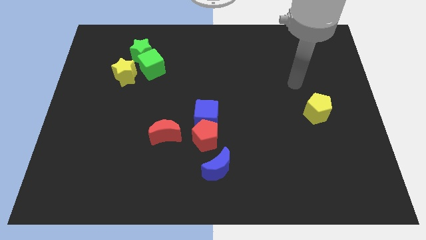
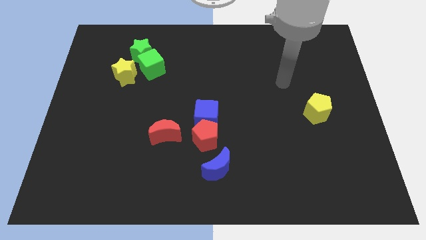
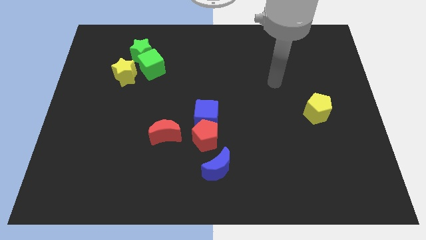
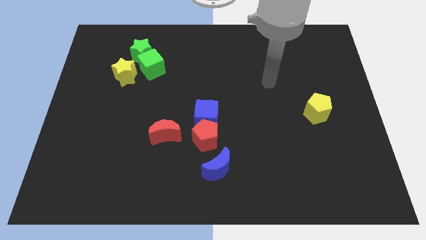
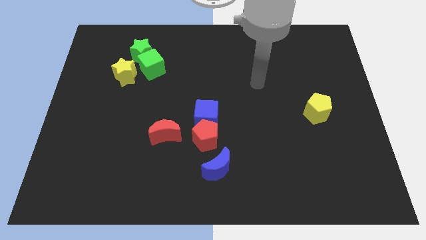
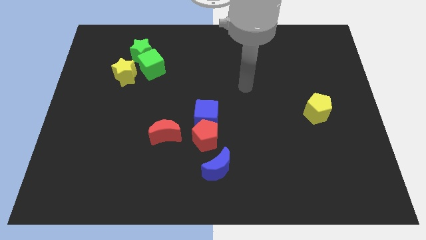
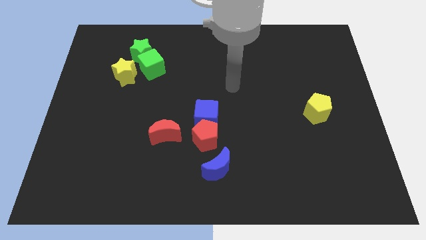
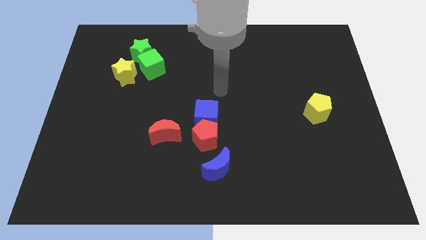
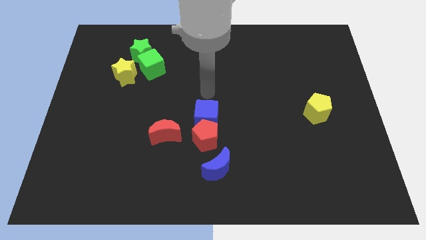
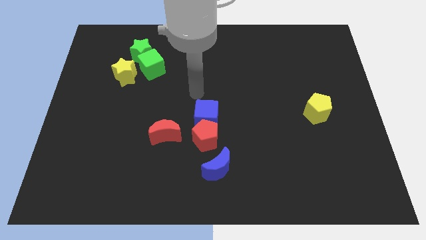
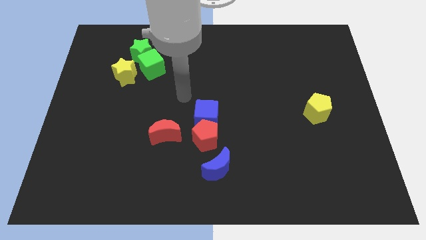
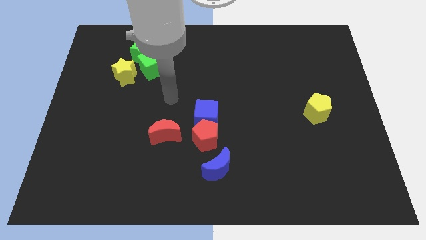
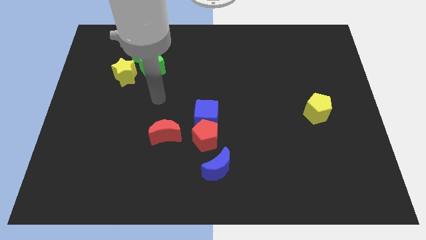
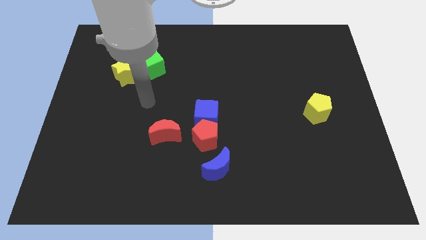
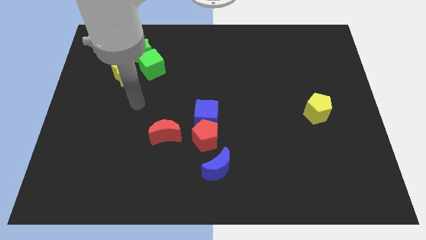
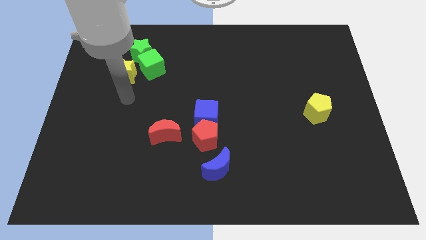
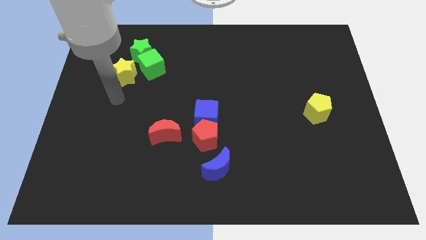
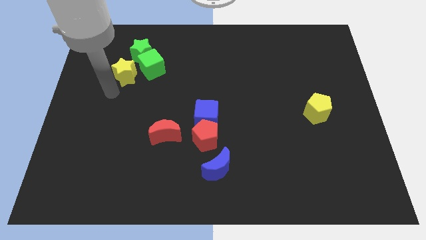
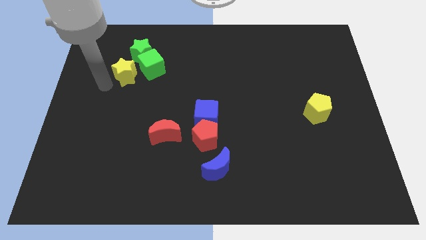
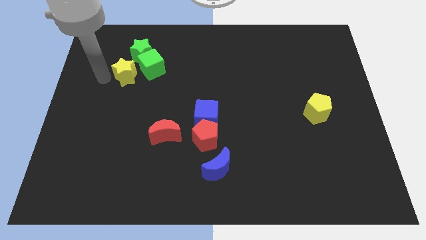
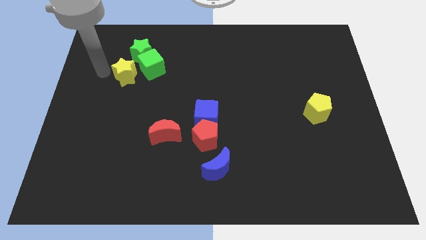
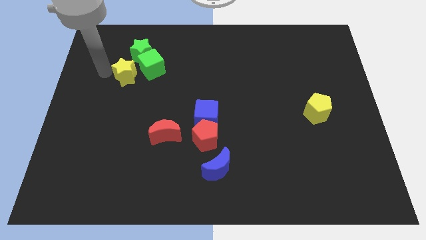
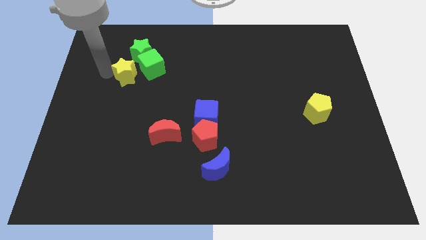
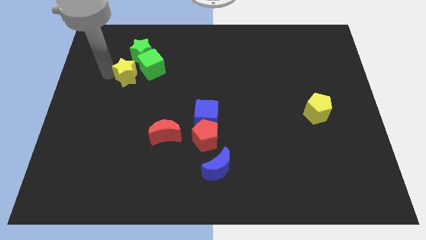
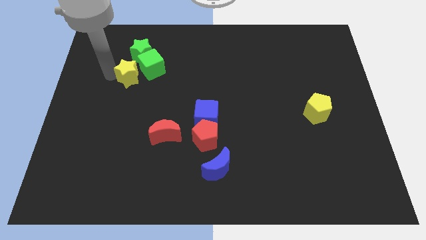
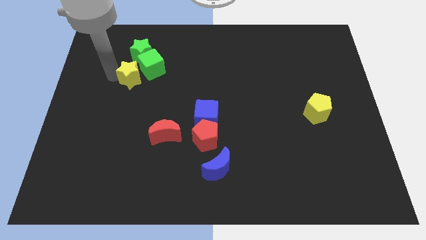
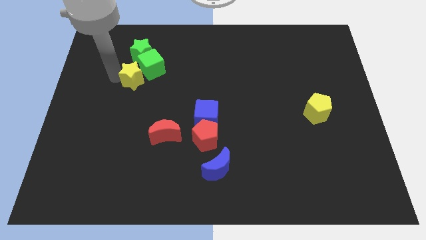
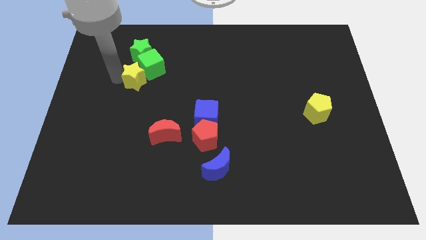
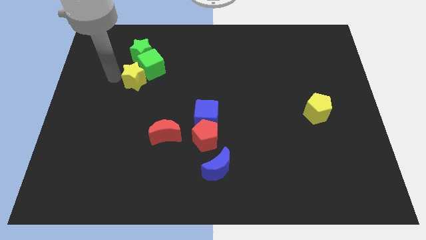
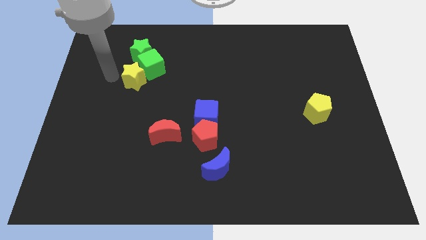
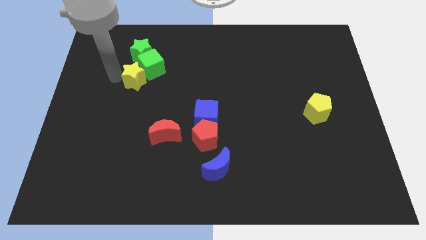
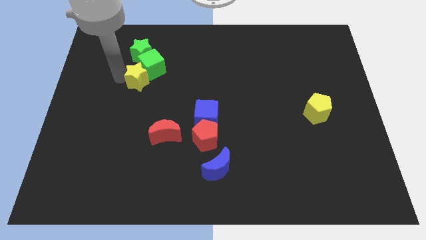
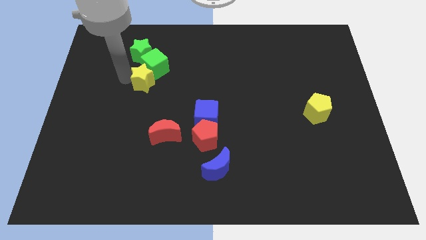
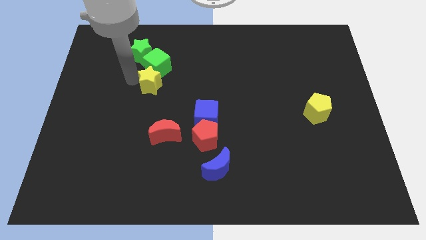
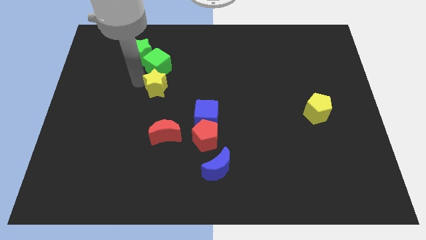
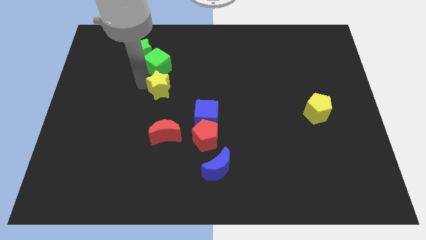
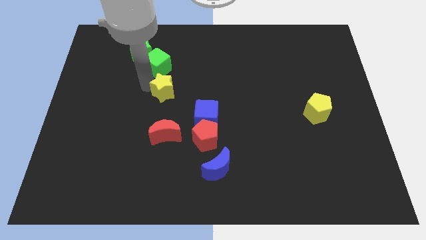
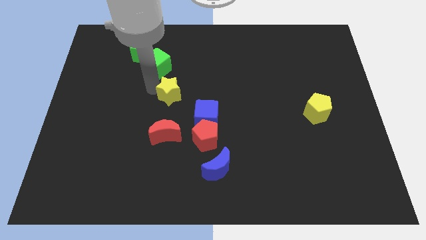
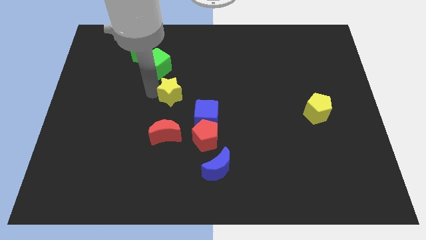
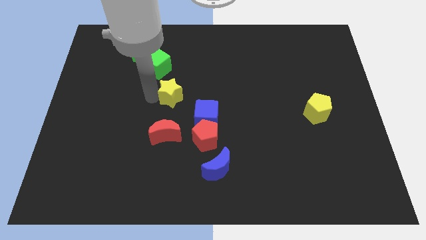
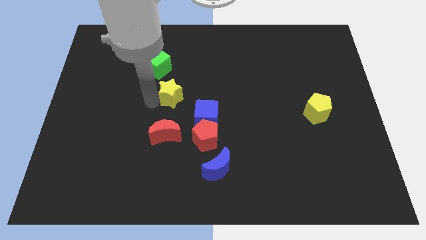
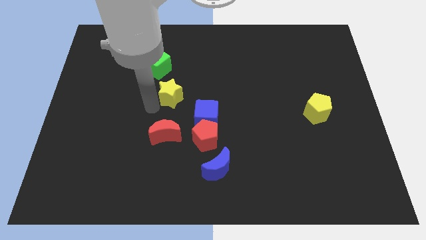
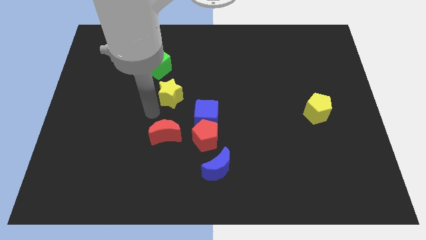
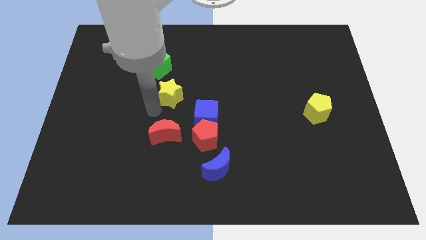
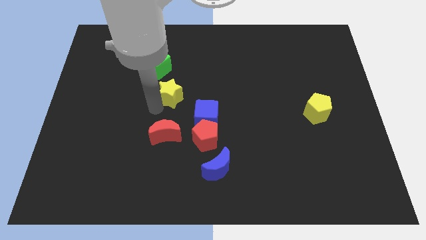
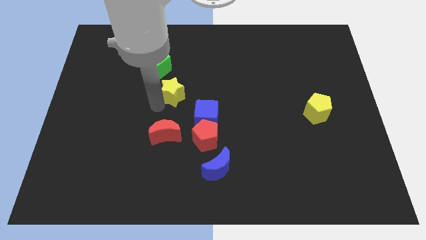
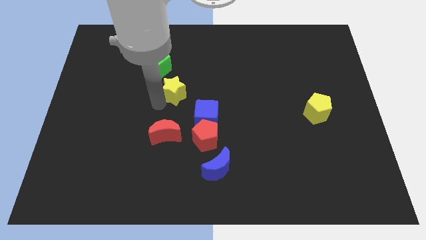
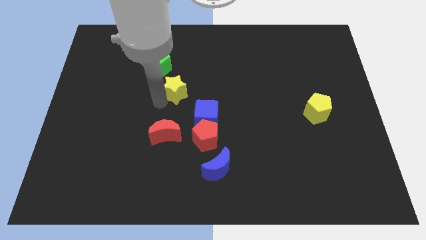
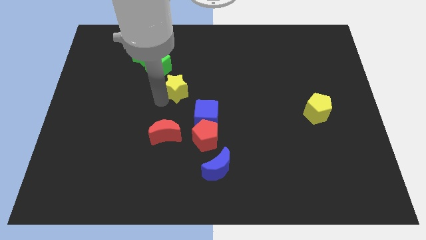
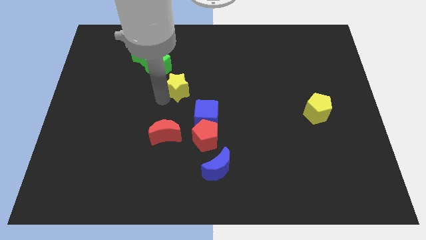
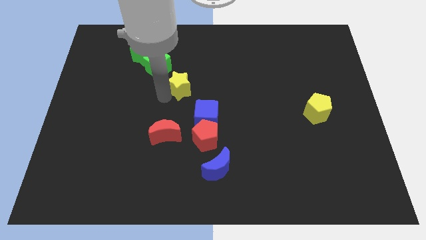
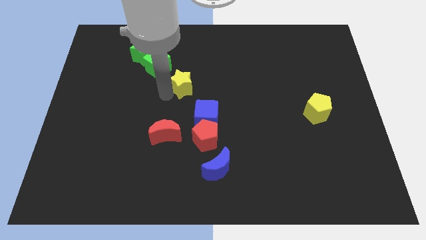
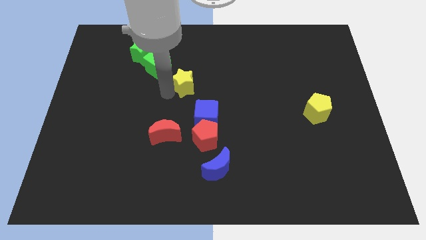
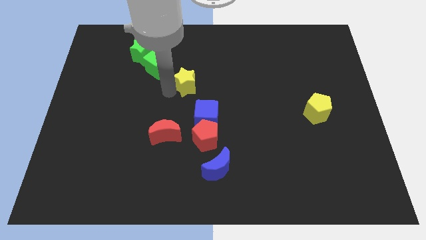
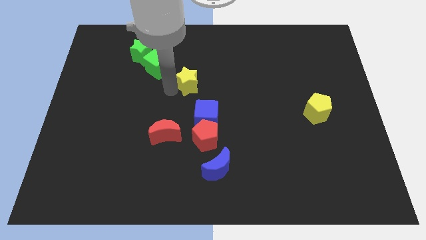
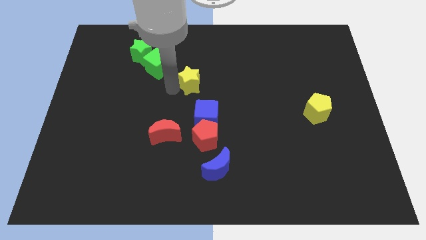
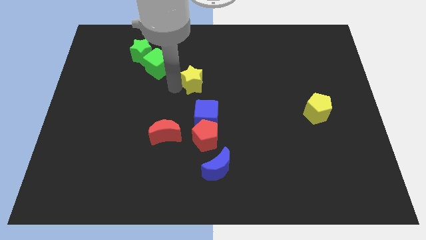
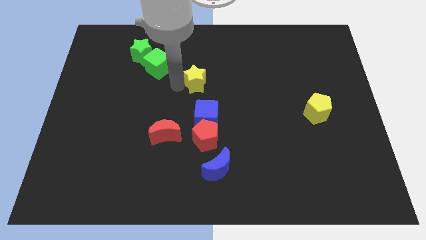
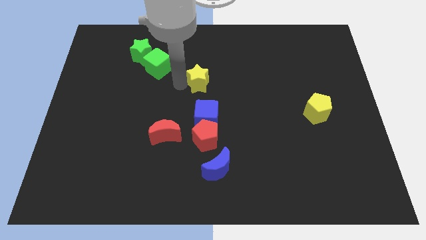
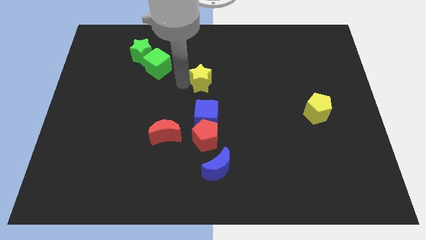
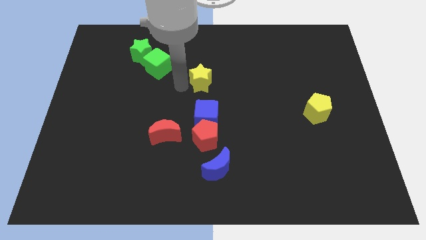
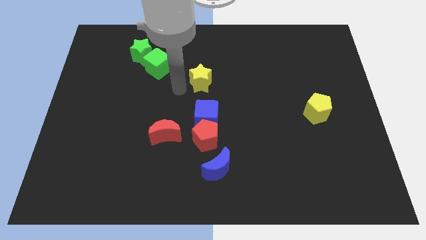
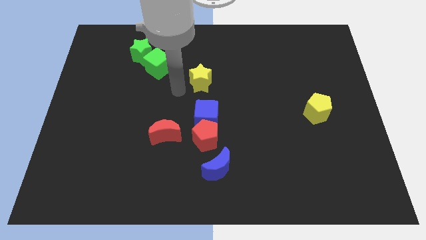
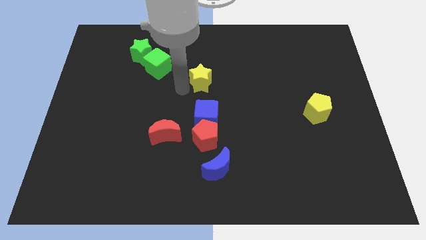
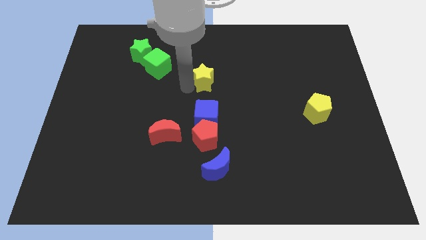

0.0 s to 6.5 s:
move the yellow star to the right

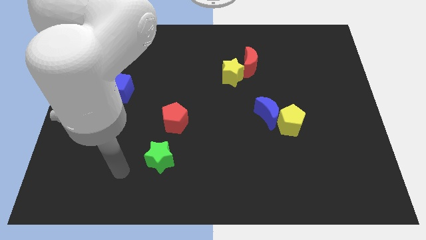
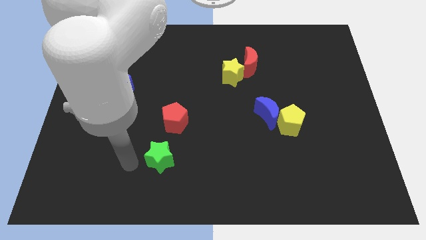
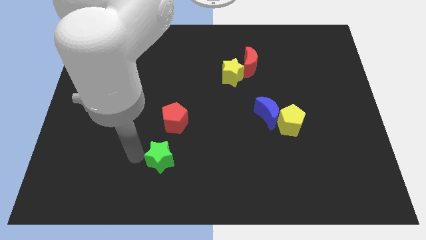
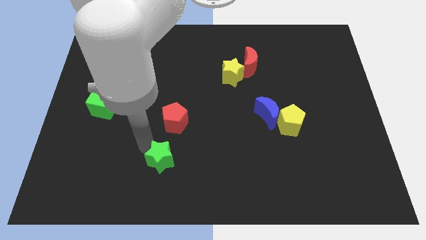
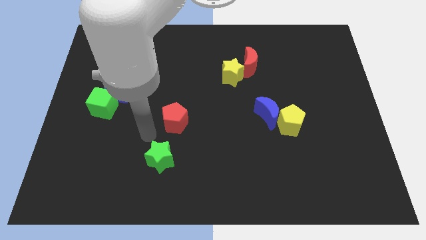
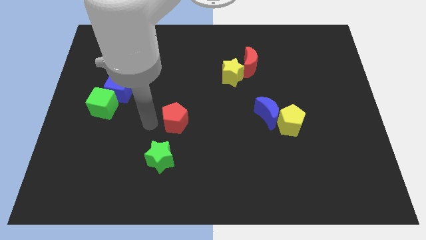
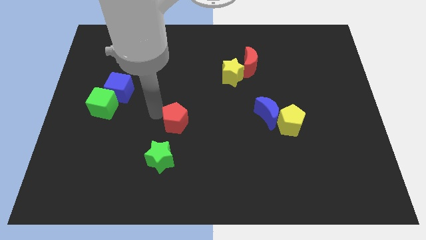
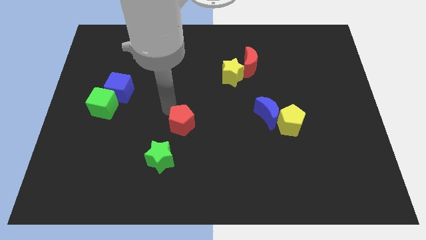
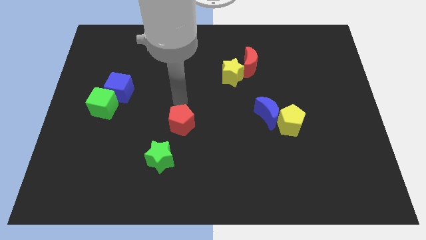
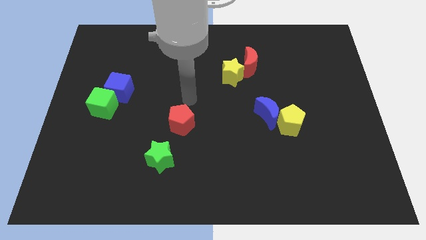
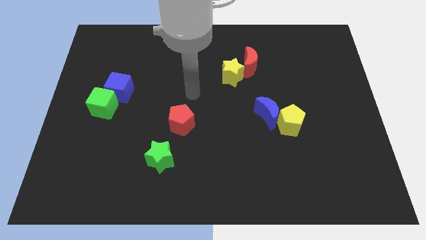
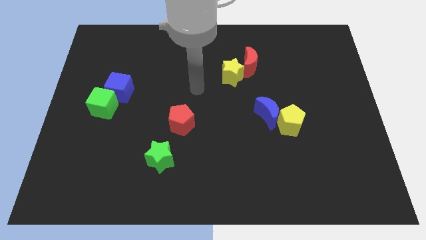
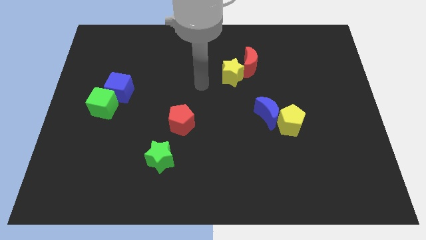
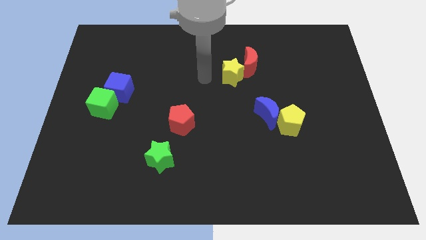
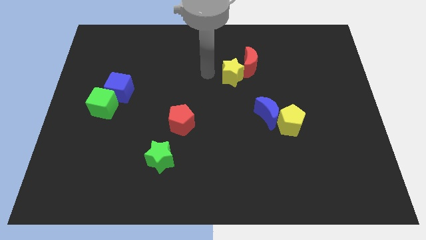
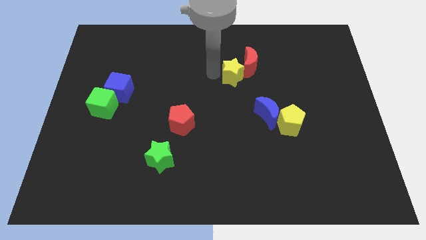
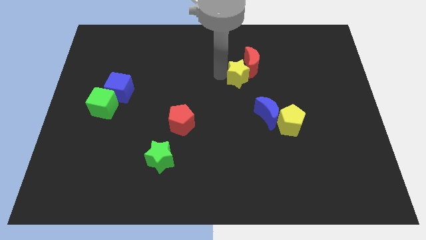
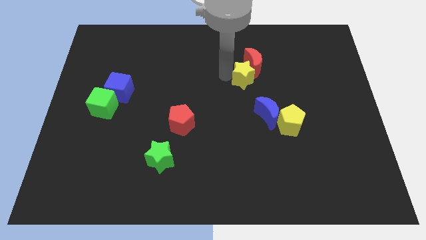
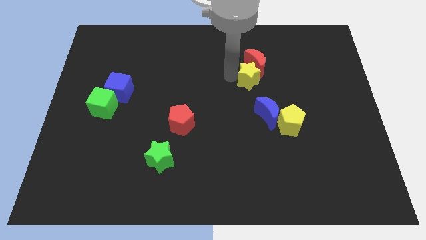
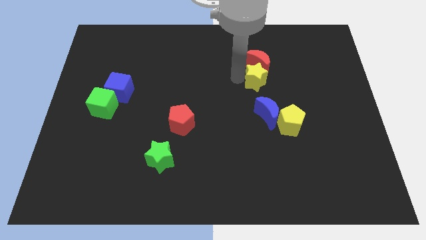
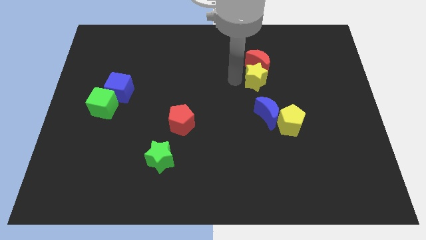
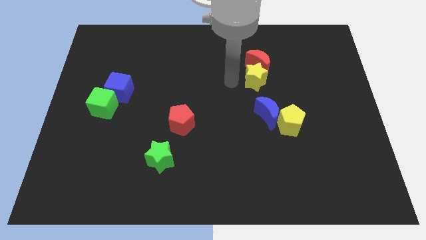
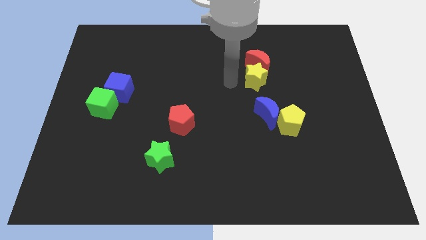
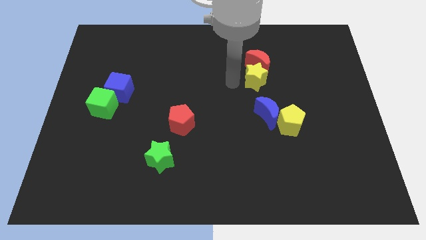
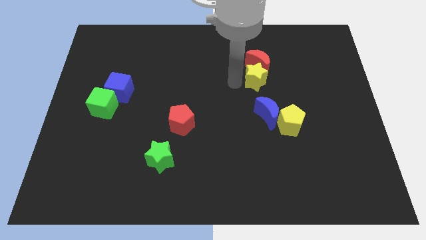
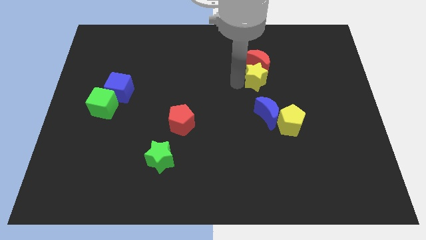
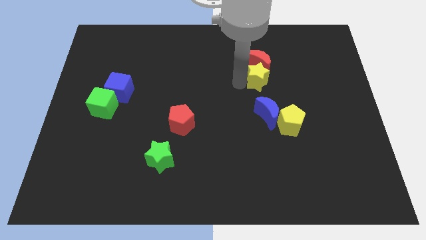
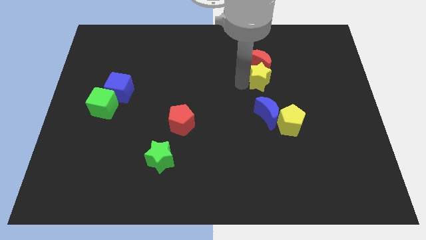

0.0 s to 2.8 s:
slightly slide the yellow star to the right
